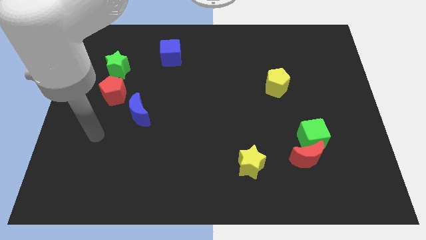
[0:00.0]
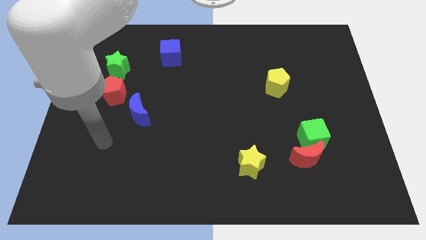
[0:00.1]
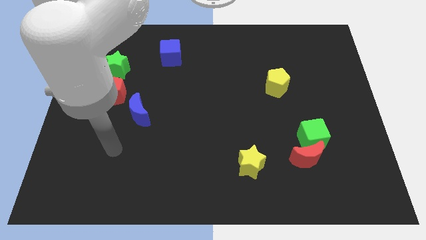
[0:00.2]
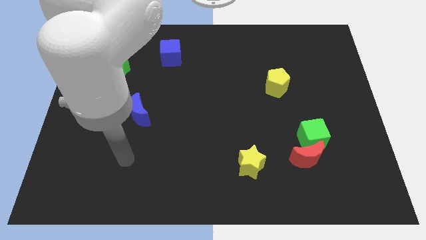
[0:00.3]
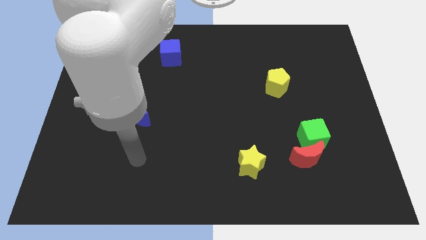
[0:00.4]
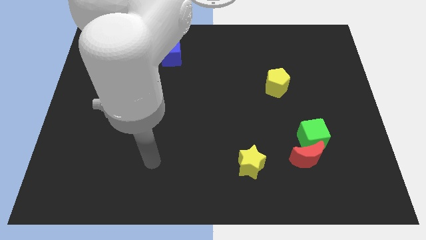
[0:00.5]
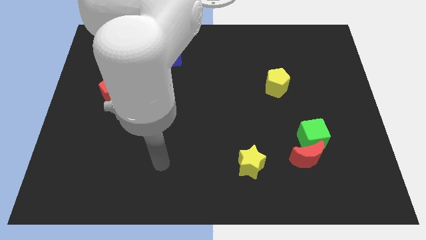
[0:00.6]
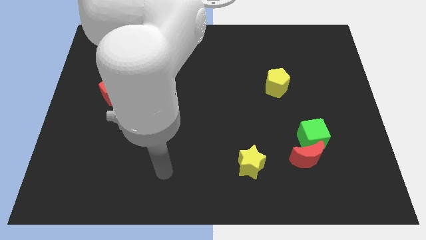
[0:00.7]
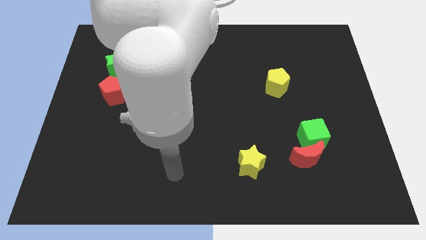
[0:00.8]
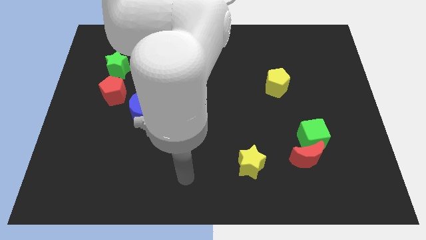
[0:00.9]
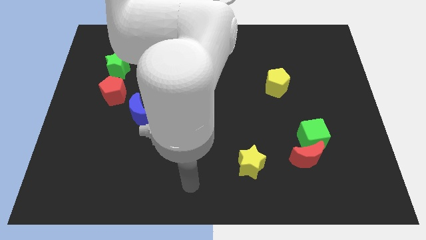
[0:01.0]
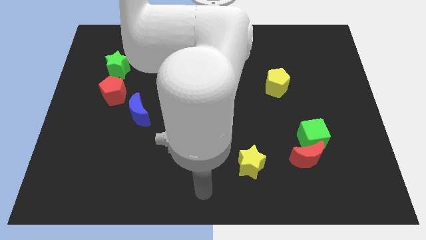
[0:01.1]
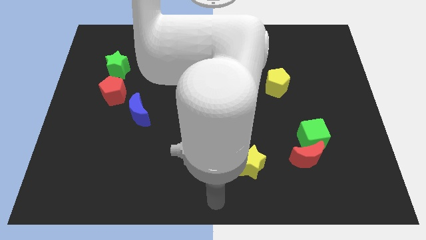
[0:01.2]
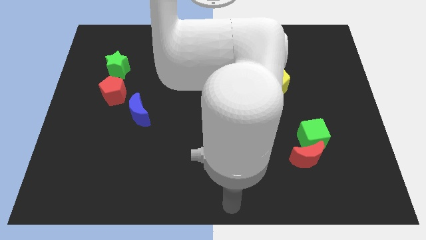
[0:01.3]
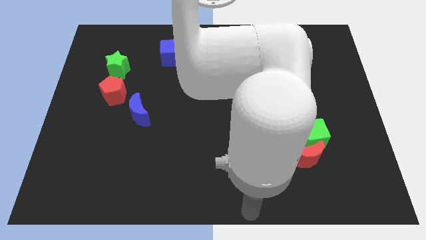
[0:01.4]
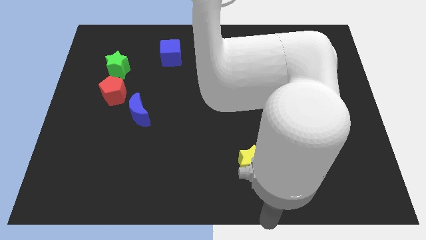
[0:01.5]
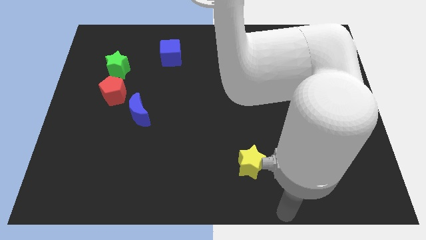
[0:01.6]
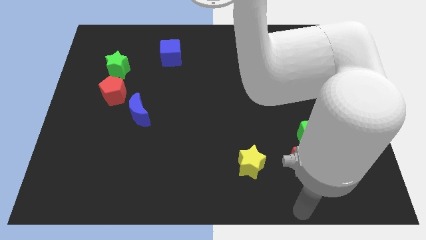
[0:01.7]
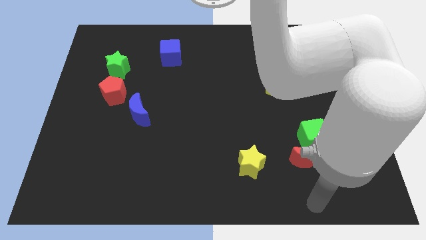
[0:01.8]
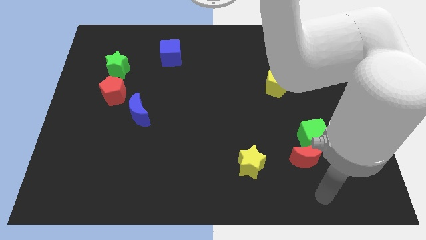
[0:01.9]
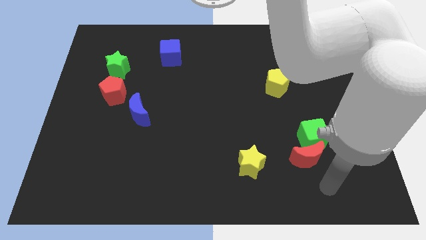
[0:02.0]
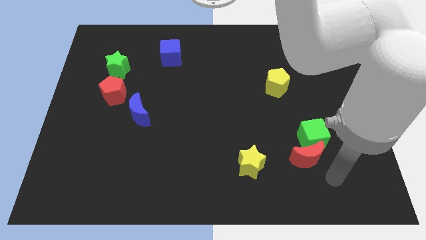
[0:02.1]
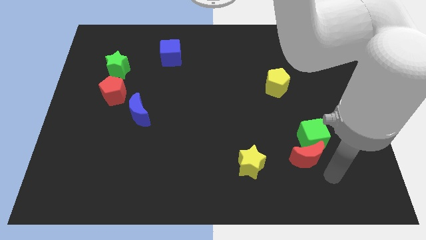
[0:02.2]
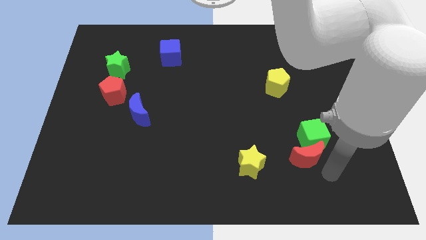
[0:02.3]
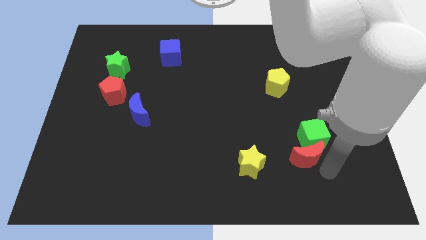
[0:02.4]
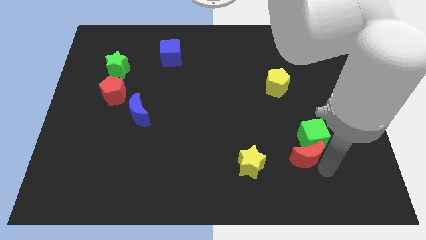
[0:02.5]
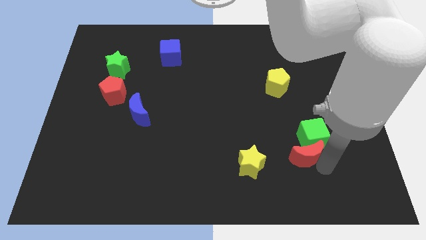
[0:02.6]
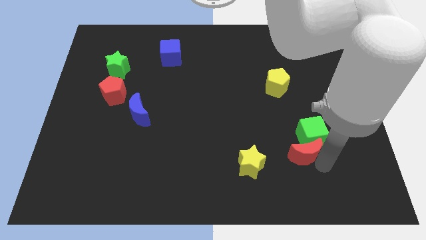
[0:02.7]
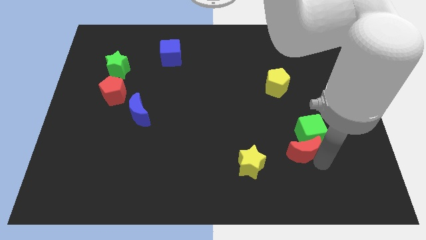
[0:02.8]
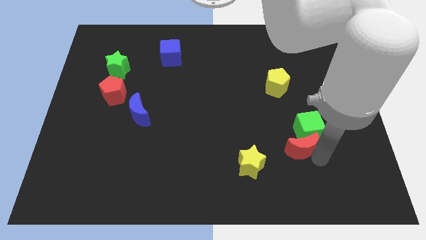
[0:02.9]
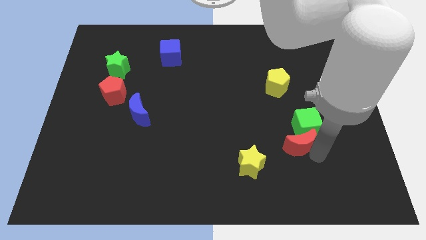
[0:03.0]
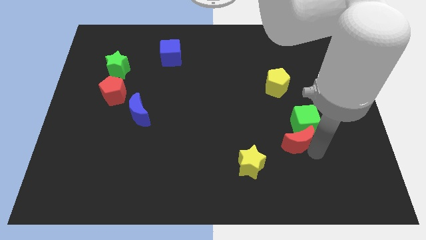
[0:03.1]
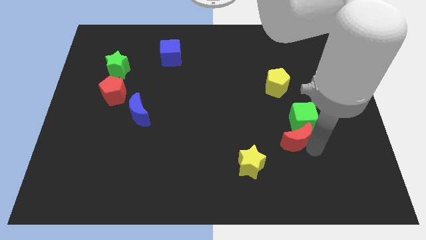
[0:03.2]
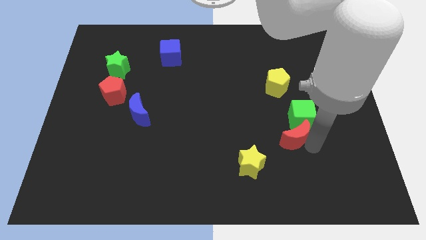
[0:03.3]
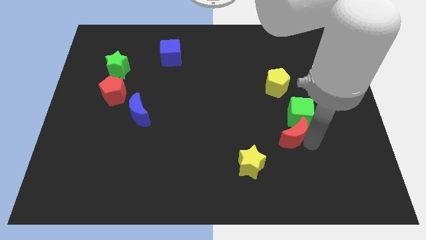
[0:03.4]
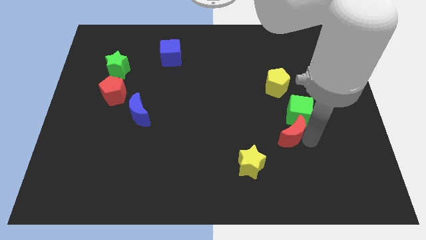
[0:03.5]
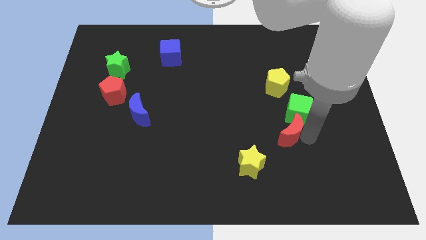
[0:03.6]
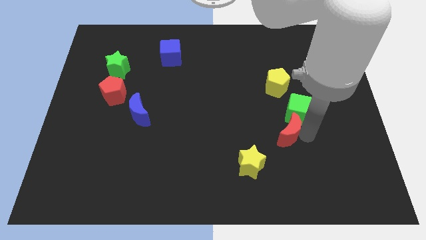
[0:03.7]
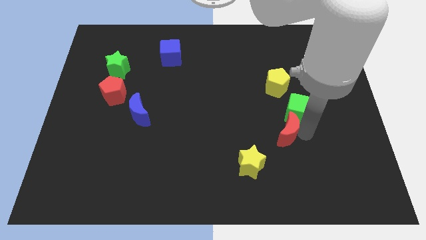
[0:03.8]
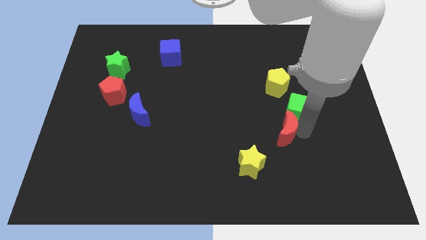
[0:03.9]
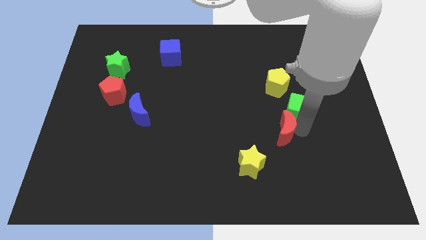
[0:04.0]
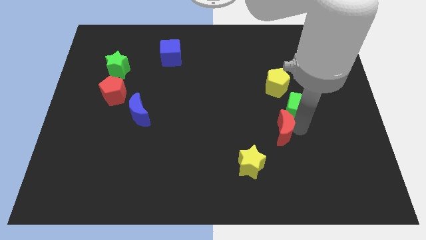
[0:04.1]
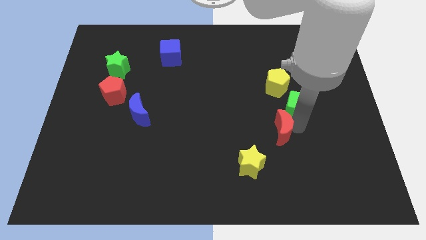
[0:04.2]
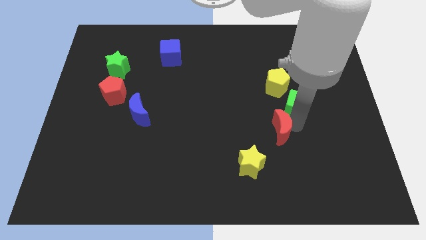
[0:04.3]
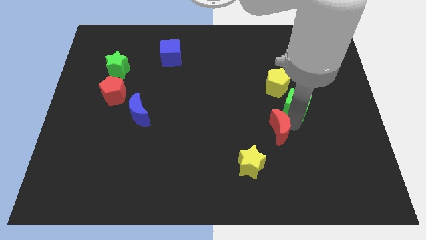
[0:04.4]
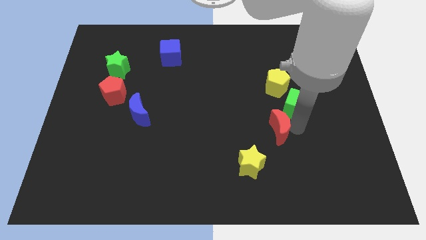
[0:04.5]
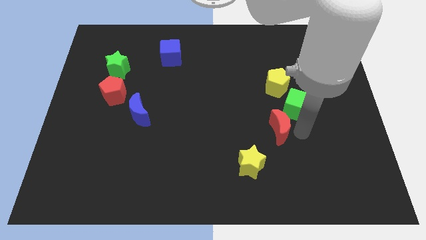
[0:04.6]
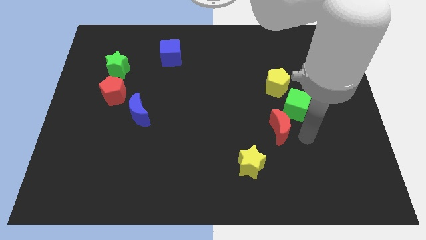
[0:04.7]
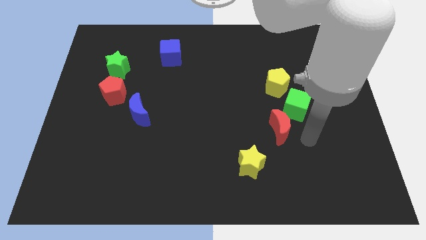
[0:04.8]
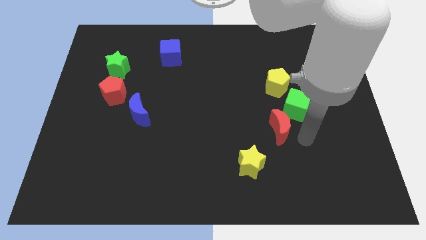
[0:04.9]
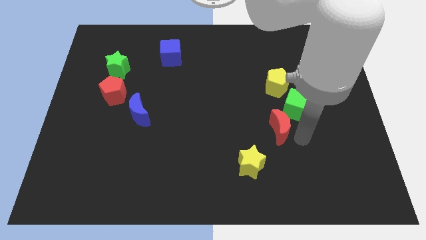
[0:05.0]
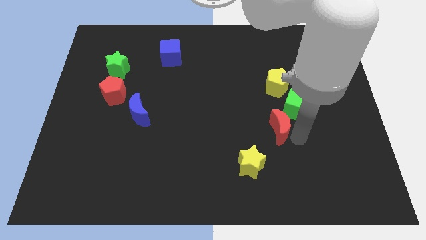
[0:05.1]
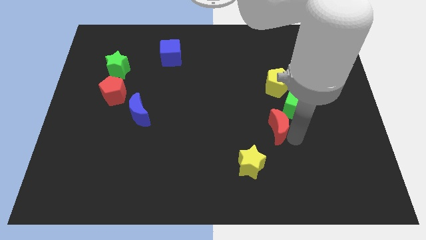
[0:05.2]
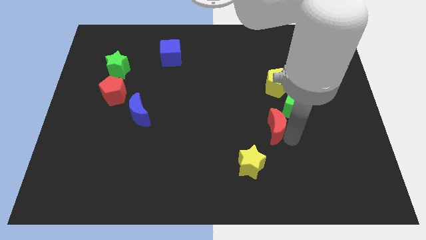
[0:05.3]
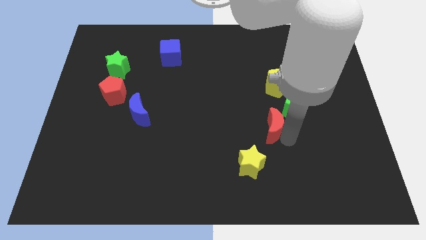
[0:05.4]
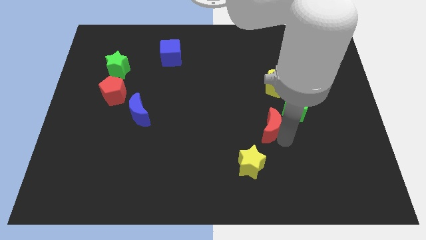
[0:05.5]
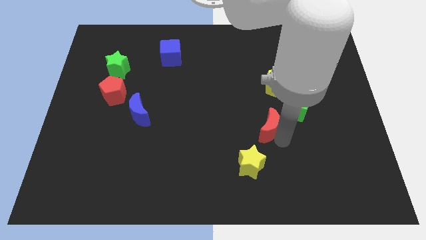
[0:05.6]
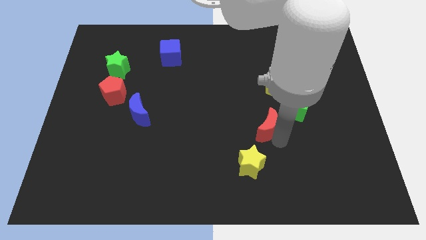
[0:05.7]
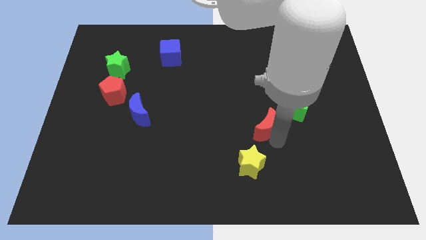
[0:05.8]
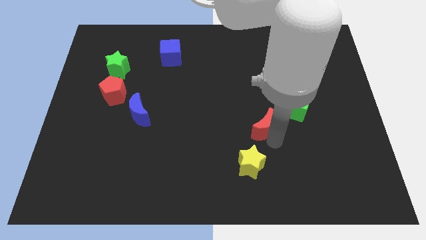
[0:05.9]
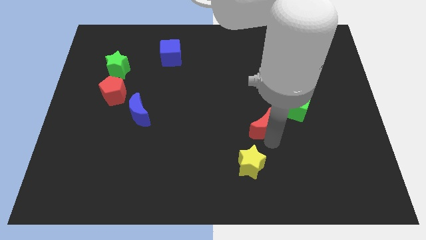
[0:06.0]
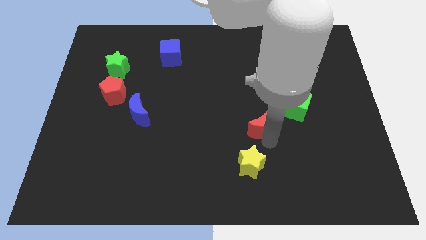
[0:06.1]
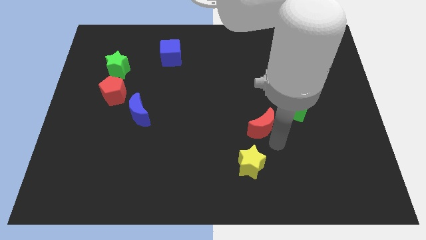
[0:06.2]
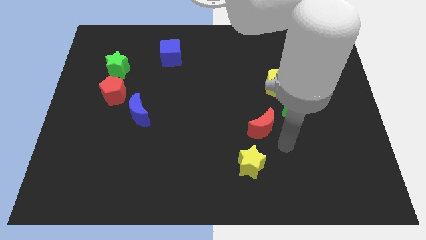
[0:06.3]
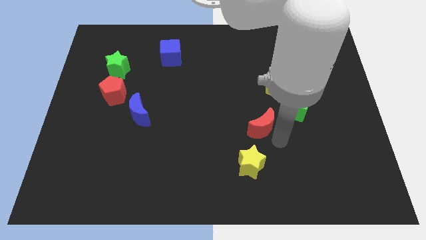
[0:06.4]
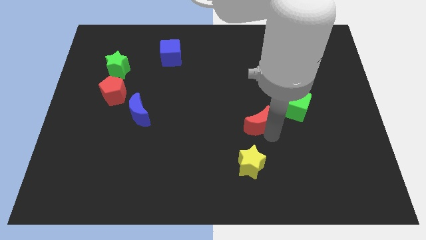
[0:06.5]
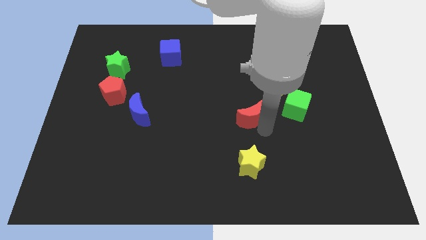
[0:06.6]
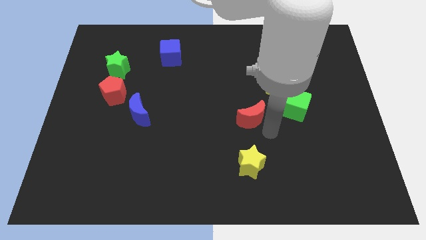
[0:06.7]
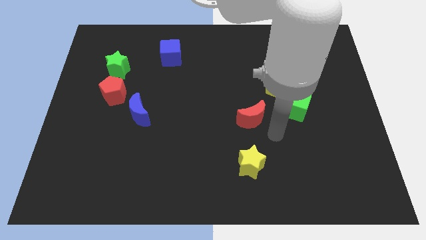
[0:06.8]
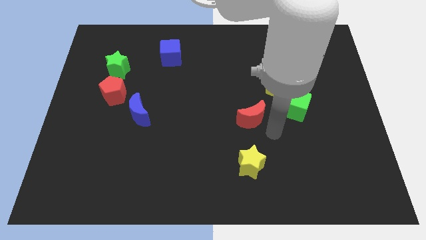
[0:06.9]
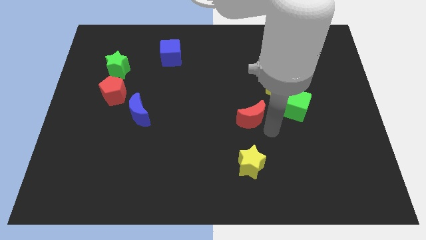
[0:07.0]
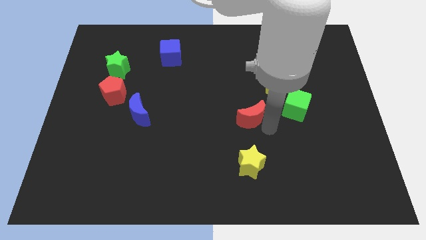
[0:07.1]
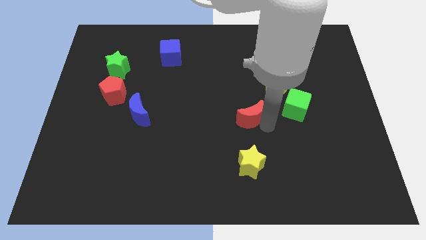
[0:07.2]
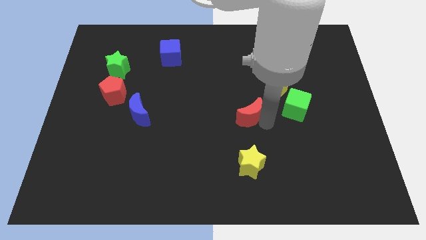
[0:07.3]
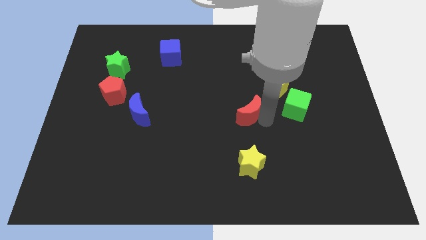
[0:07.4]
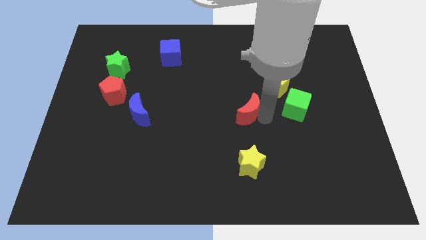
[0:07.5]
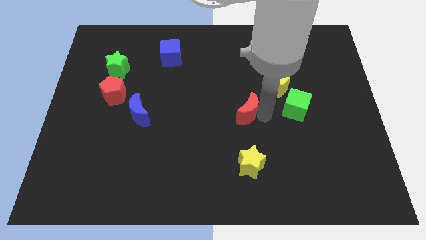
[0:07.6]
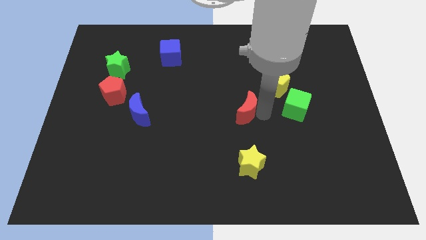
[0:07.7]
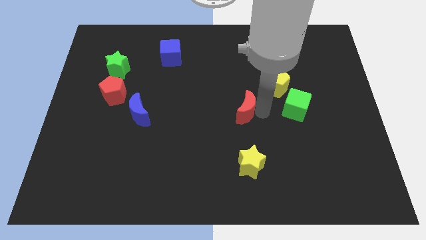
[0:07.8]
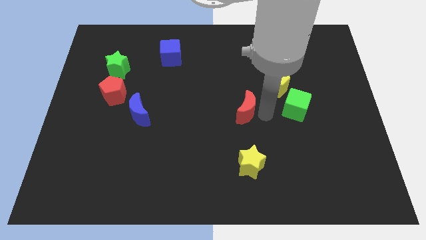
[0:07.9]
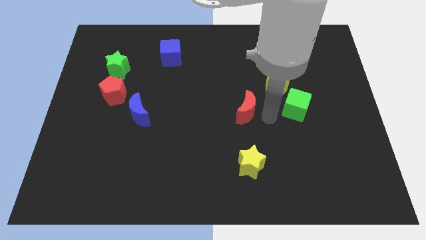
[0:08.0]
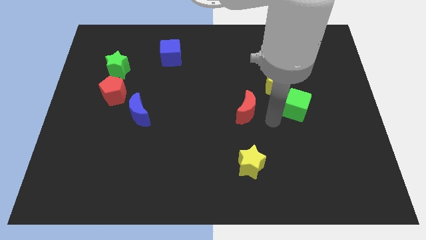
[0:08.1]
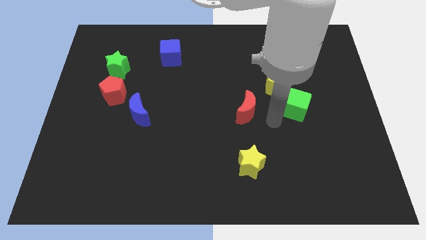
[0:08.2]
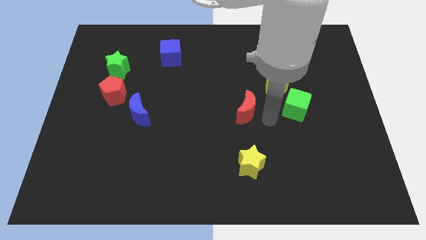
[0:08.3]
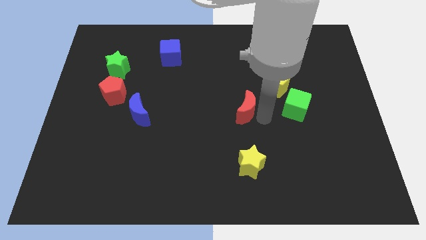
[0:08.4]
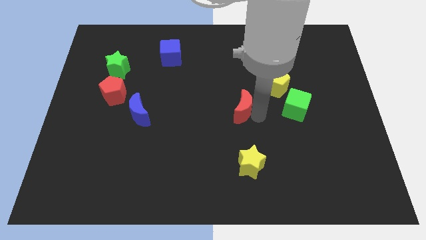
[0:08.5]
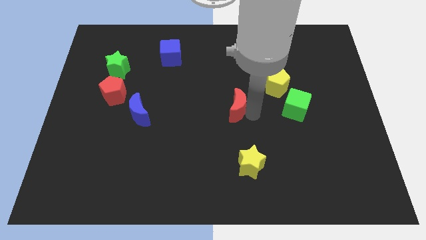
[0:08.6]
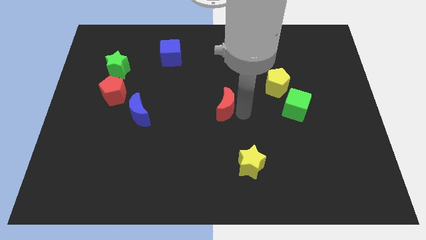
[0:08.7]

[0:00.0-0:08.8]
push the red moon diagonally upwards and left
